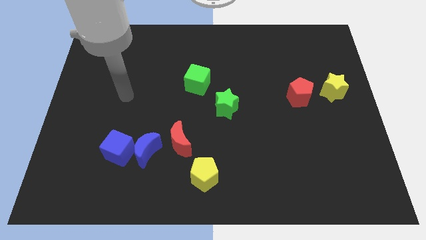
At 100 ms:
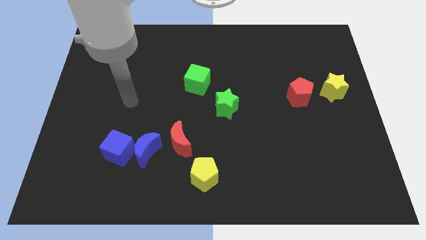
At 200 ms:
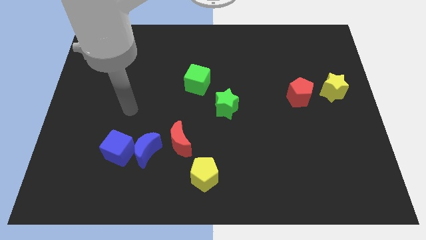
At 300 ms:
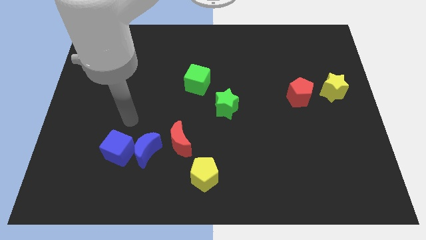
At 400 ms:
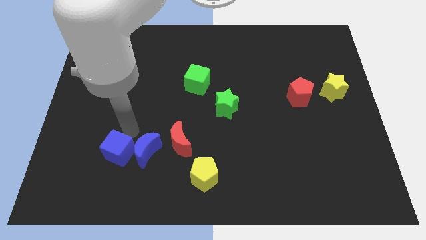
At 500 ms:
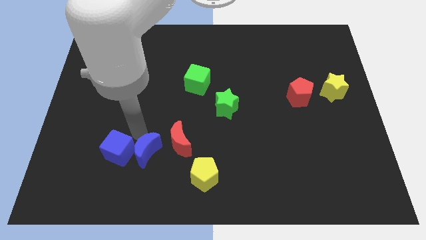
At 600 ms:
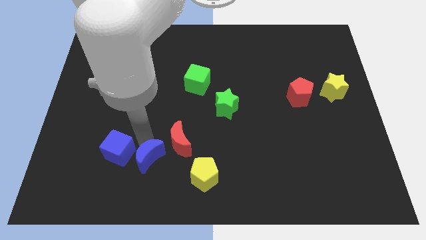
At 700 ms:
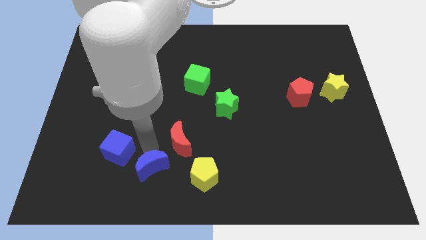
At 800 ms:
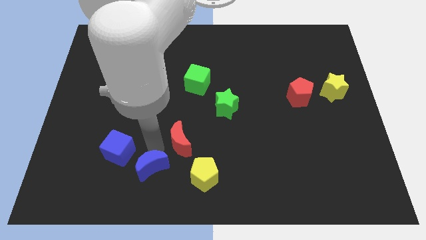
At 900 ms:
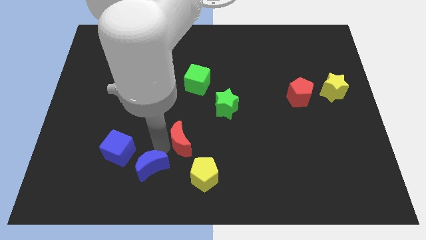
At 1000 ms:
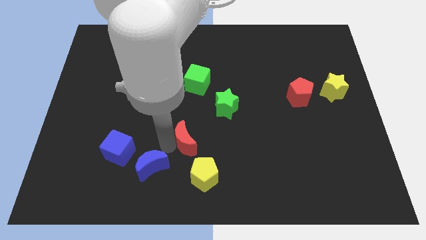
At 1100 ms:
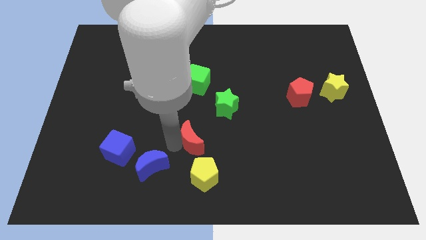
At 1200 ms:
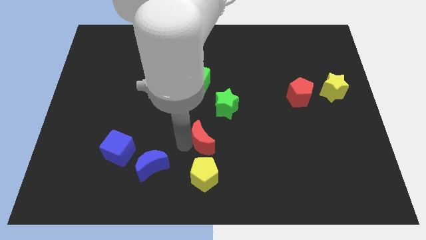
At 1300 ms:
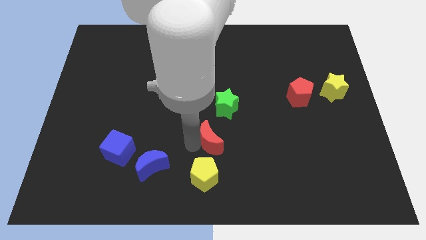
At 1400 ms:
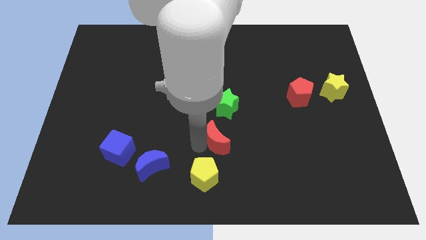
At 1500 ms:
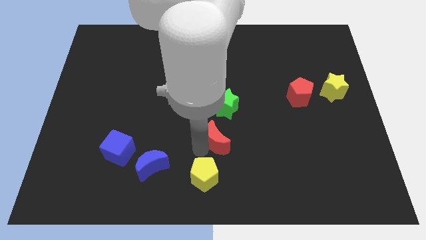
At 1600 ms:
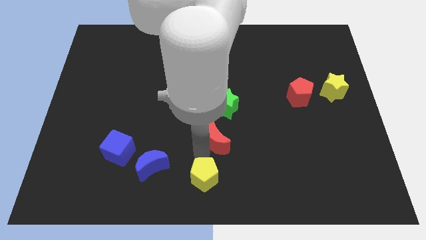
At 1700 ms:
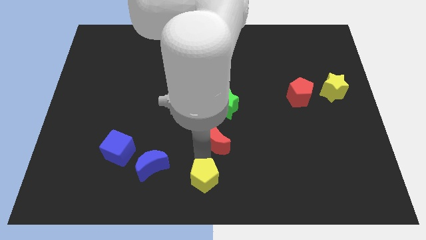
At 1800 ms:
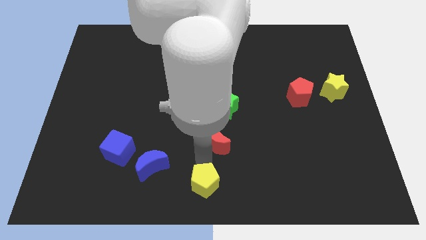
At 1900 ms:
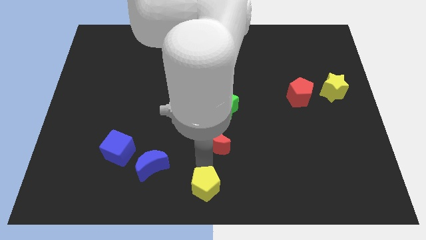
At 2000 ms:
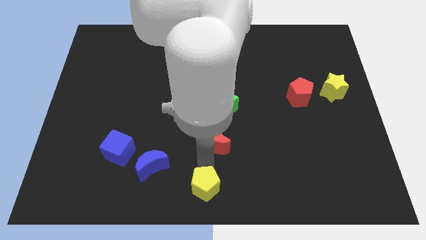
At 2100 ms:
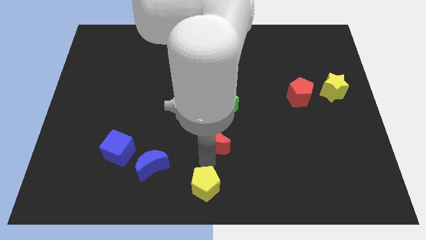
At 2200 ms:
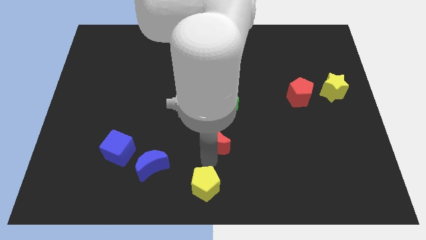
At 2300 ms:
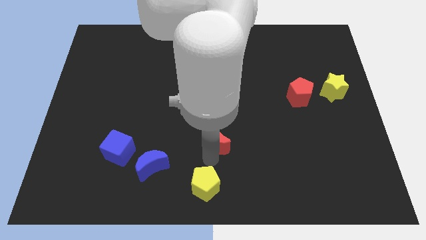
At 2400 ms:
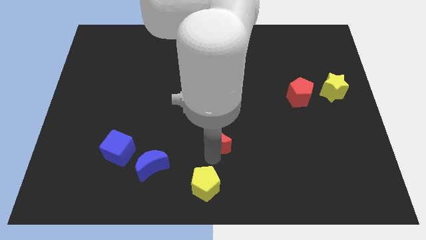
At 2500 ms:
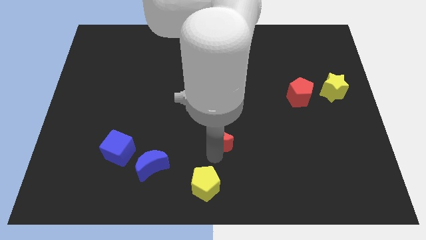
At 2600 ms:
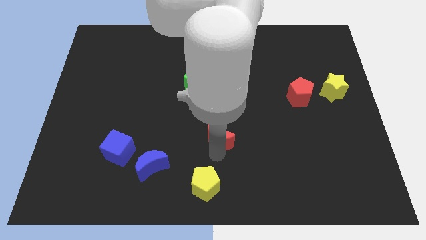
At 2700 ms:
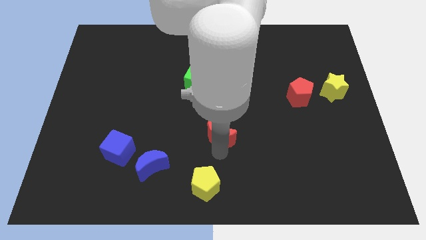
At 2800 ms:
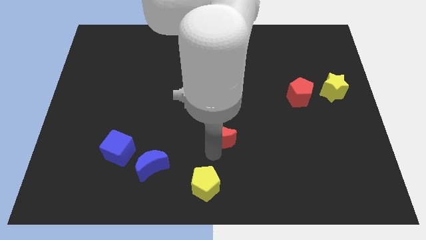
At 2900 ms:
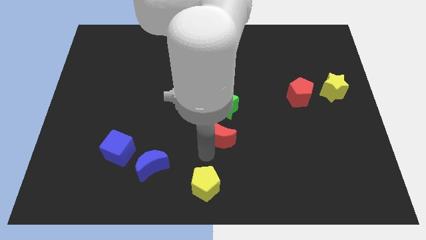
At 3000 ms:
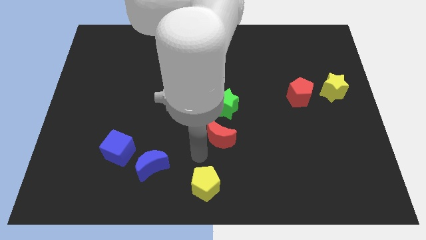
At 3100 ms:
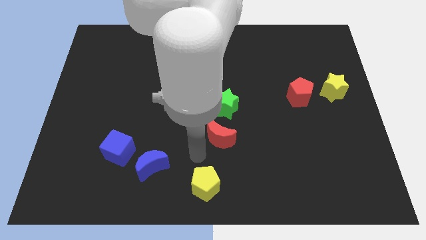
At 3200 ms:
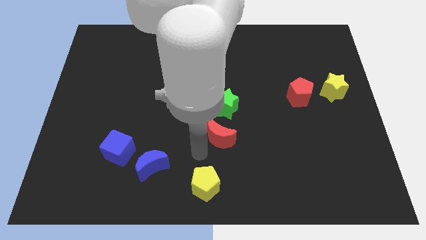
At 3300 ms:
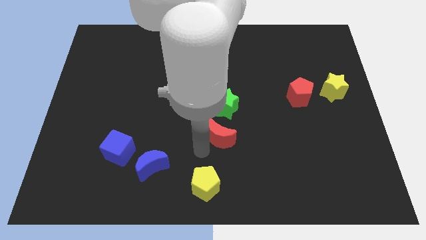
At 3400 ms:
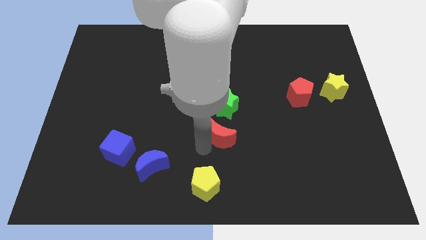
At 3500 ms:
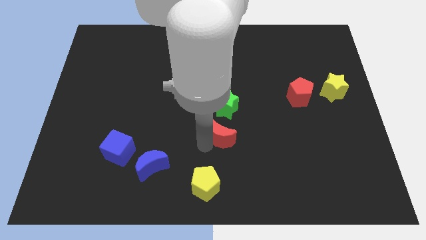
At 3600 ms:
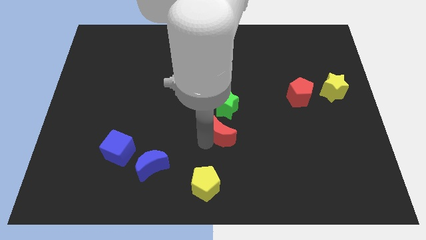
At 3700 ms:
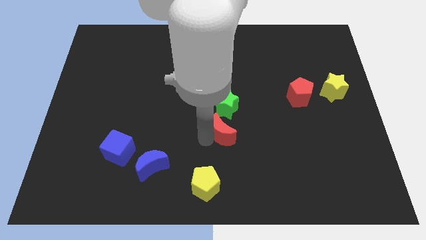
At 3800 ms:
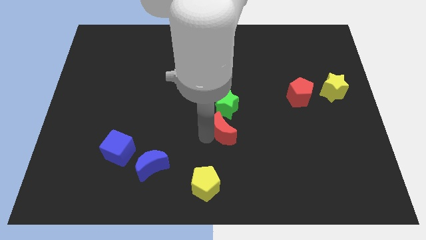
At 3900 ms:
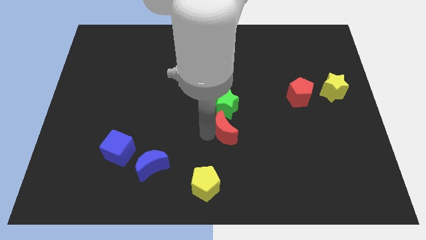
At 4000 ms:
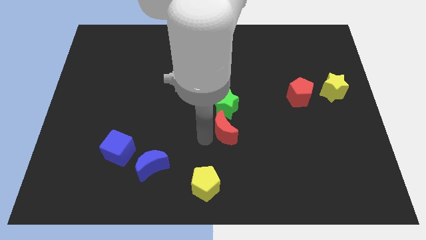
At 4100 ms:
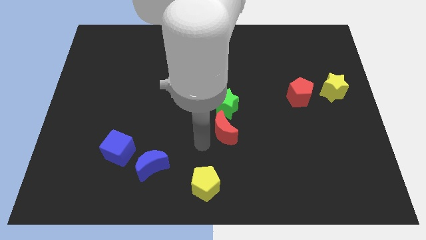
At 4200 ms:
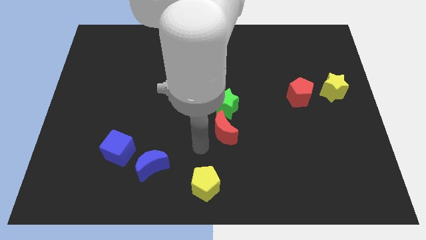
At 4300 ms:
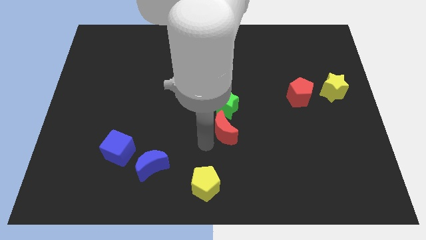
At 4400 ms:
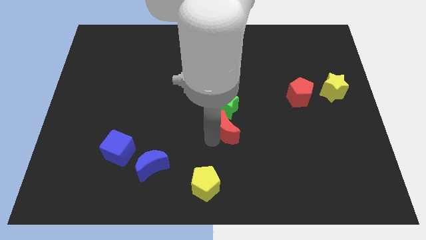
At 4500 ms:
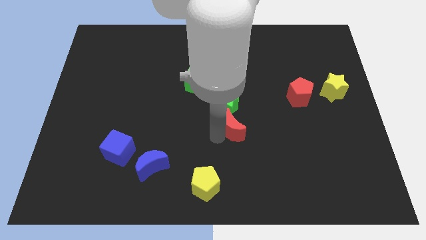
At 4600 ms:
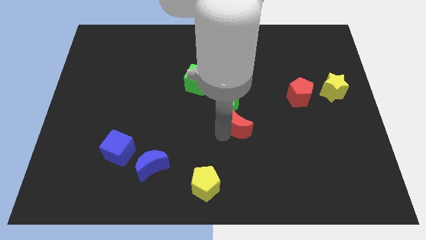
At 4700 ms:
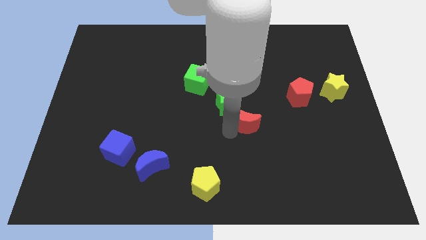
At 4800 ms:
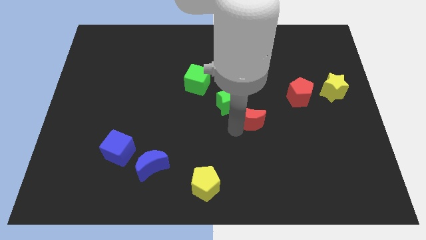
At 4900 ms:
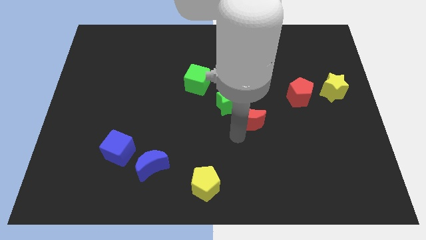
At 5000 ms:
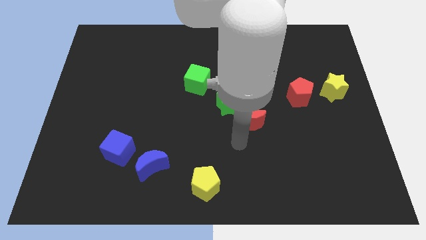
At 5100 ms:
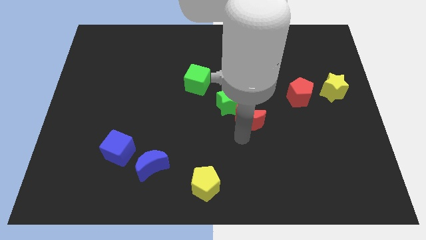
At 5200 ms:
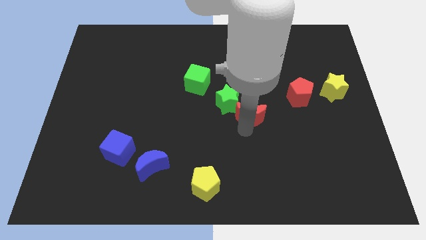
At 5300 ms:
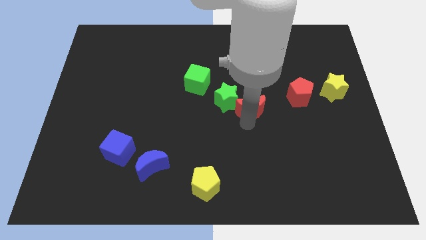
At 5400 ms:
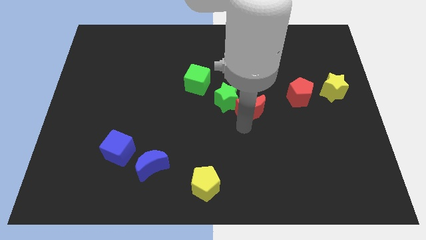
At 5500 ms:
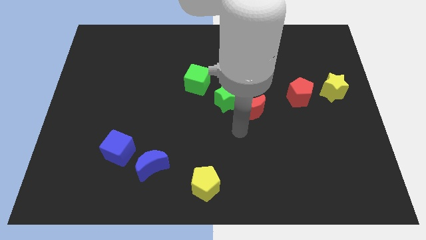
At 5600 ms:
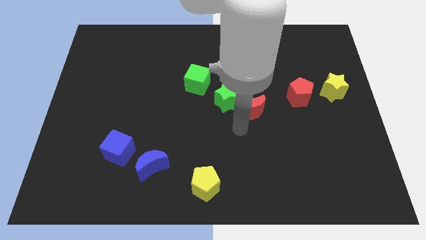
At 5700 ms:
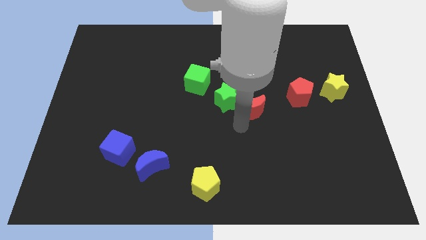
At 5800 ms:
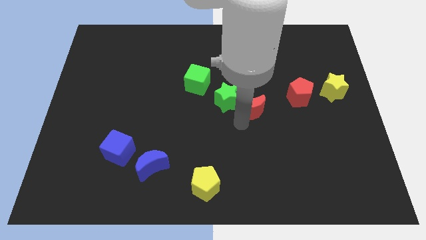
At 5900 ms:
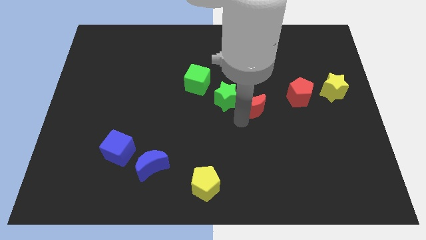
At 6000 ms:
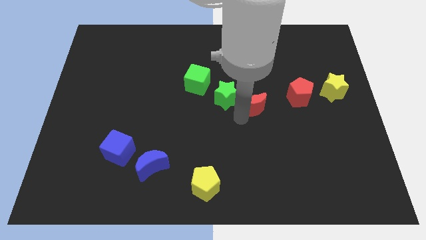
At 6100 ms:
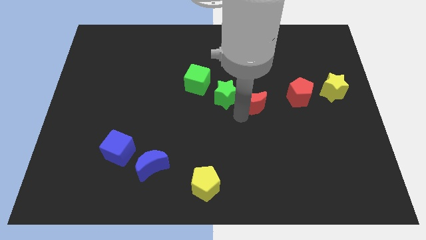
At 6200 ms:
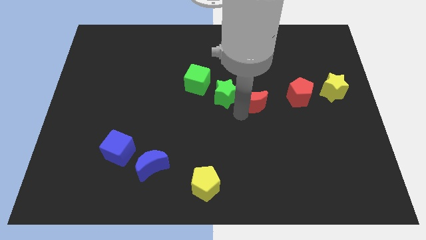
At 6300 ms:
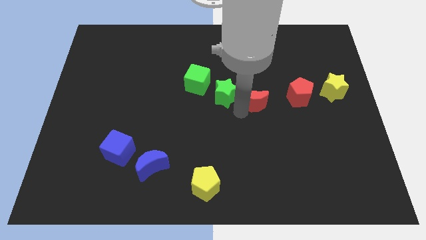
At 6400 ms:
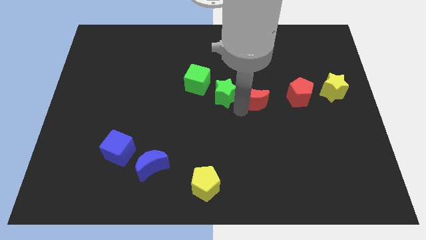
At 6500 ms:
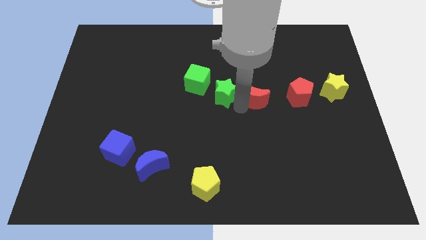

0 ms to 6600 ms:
push the red moon up and to the right diagonally

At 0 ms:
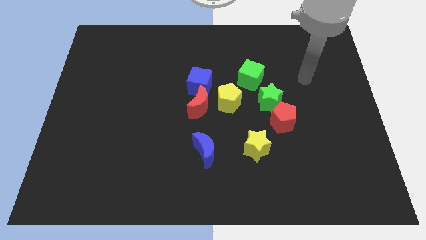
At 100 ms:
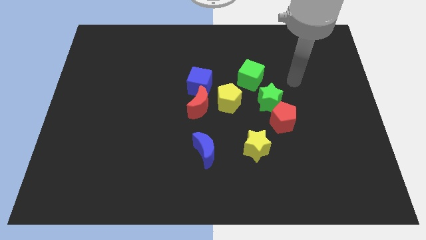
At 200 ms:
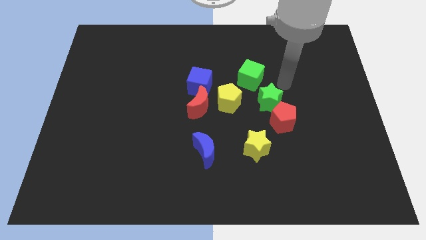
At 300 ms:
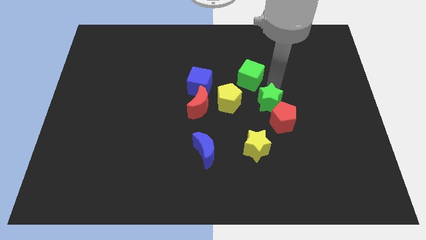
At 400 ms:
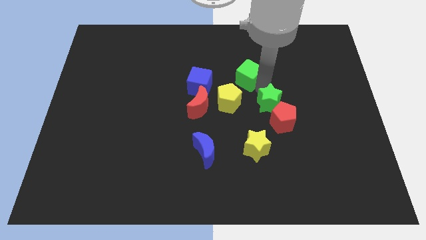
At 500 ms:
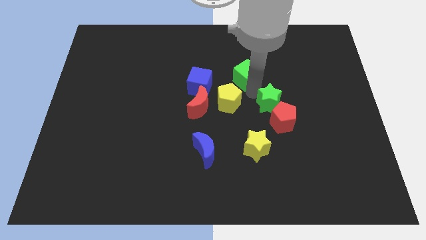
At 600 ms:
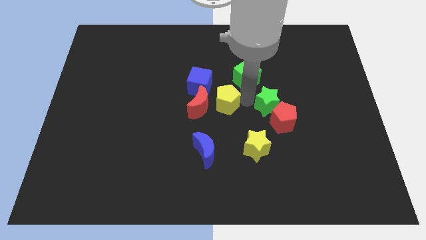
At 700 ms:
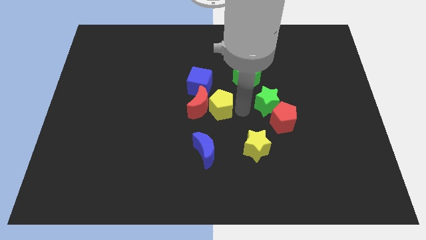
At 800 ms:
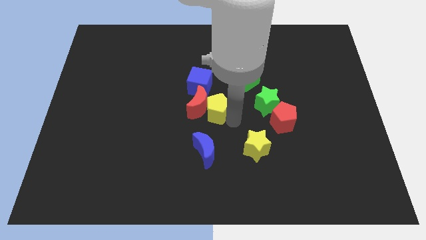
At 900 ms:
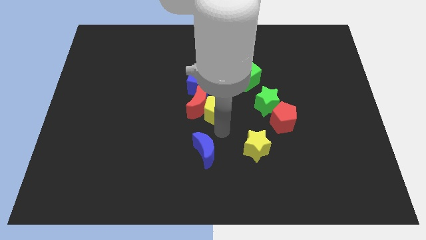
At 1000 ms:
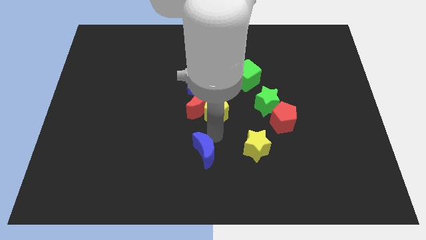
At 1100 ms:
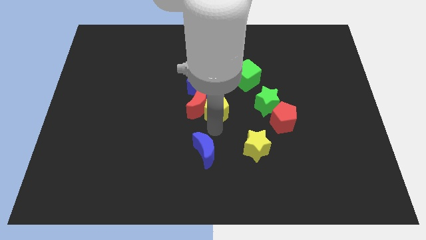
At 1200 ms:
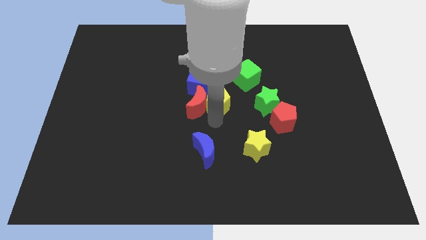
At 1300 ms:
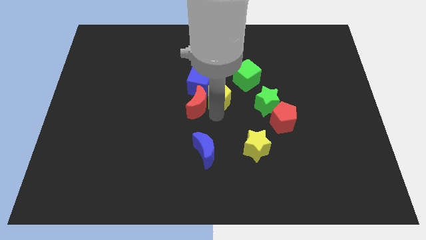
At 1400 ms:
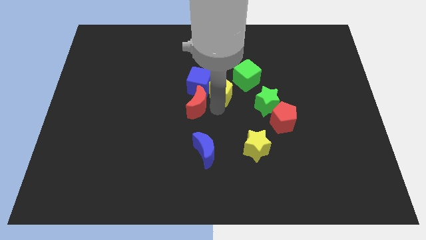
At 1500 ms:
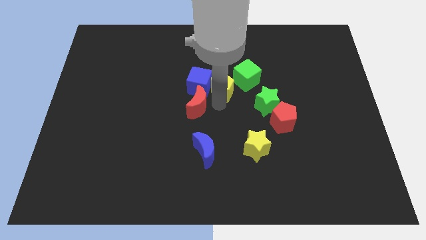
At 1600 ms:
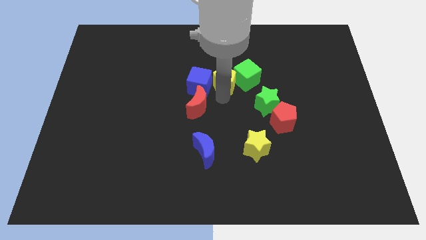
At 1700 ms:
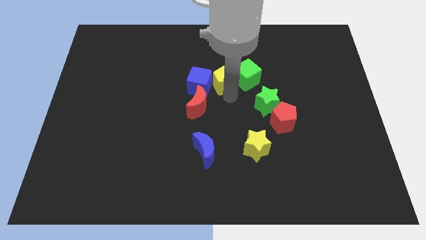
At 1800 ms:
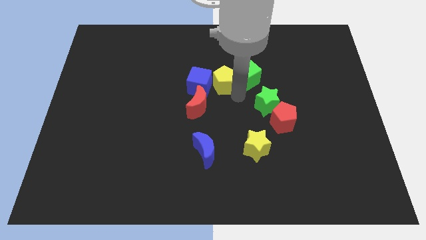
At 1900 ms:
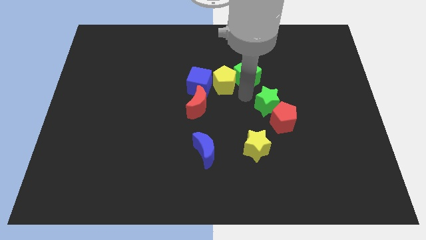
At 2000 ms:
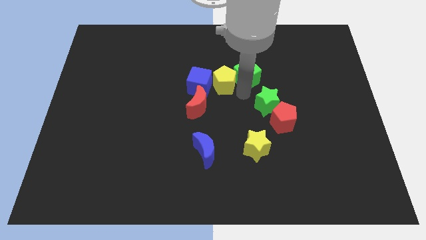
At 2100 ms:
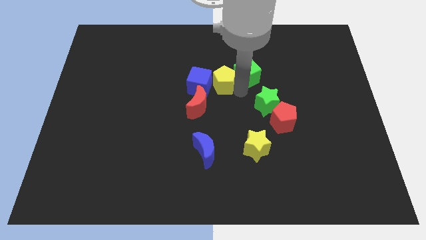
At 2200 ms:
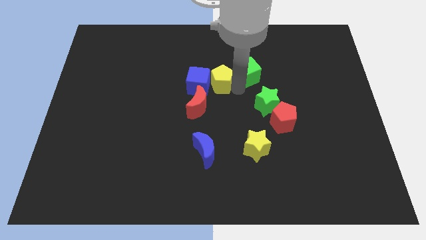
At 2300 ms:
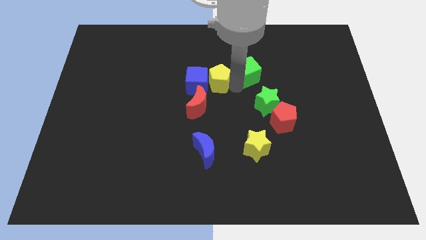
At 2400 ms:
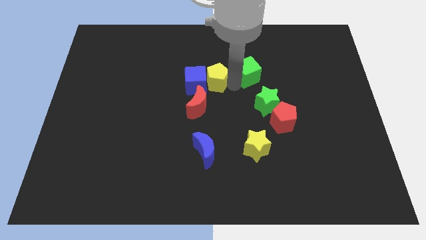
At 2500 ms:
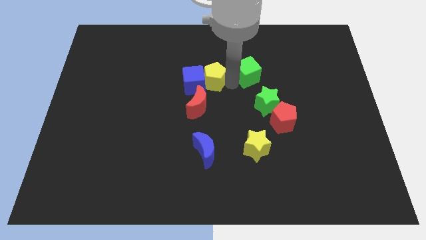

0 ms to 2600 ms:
slide the yellow pentagon slightly up and to the left
